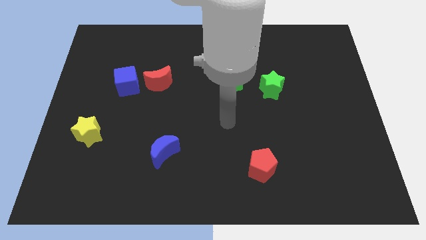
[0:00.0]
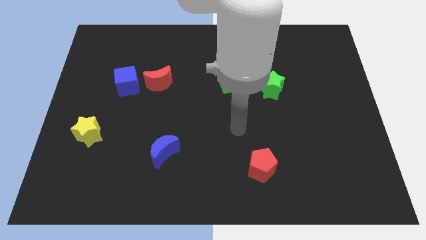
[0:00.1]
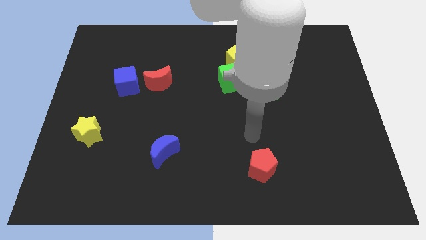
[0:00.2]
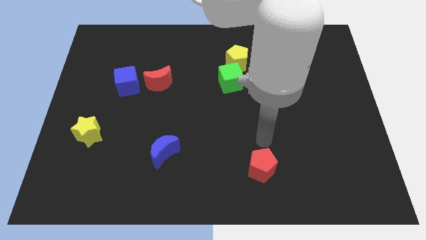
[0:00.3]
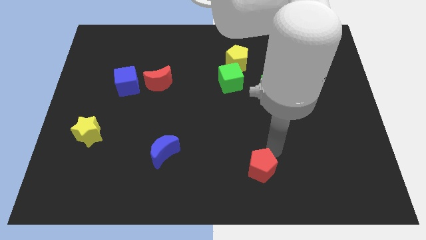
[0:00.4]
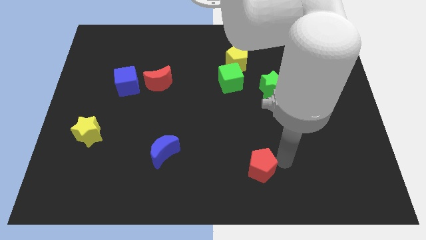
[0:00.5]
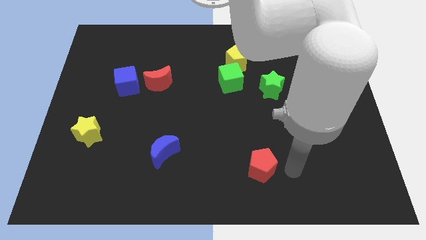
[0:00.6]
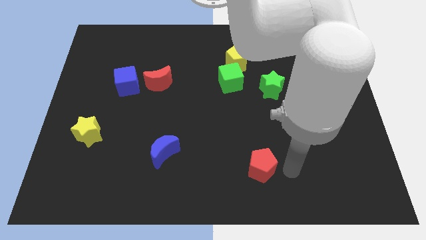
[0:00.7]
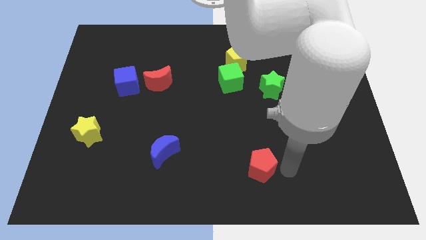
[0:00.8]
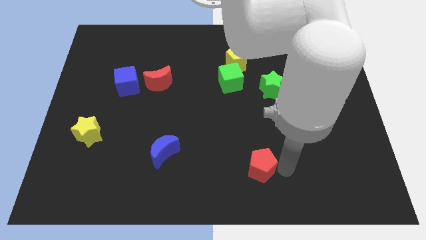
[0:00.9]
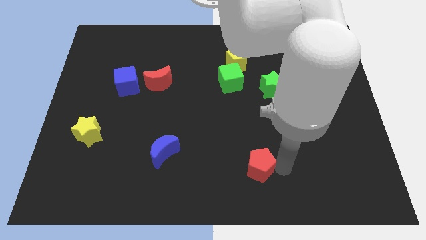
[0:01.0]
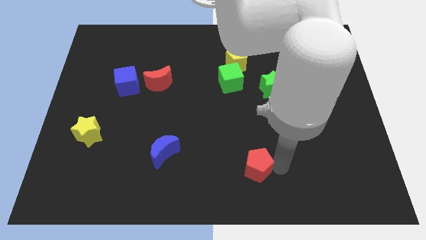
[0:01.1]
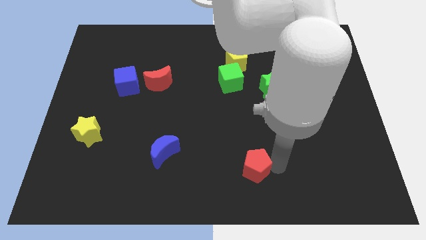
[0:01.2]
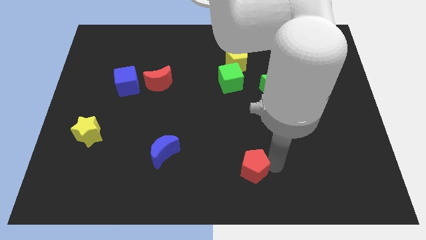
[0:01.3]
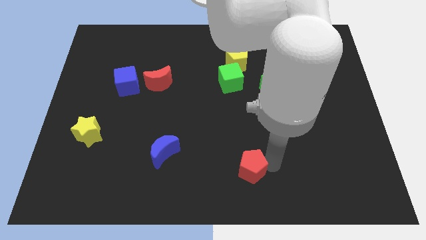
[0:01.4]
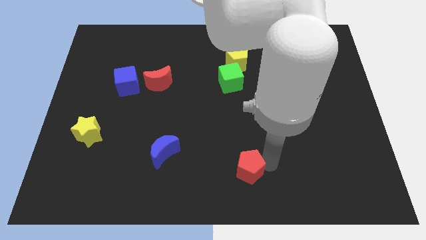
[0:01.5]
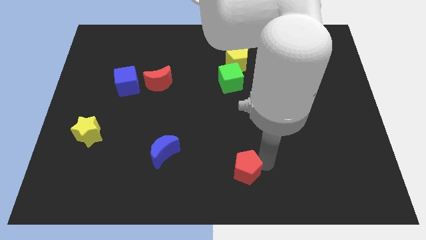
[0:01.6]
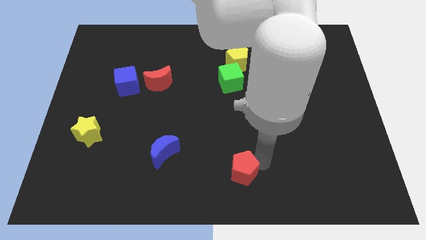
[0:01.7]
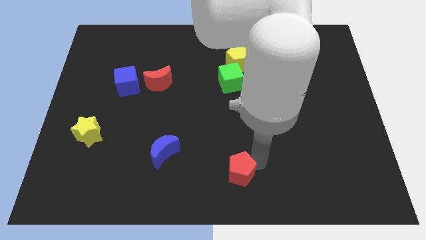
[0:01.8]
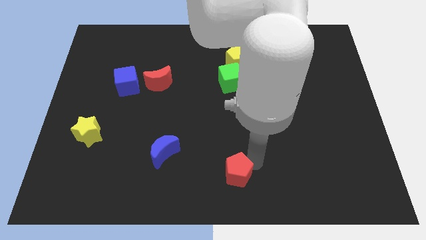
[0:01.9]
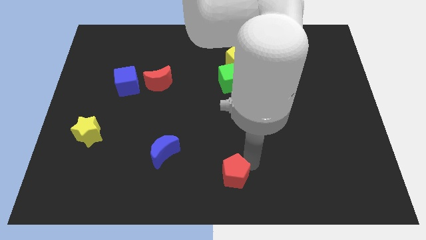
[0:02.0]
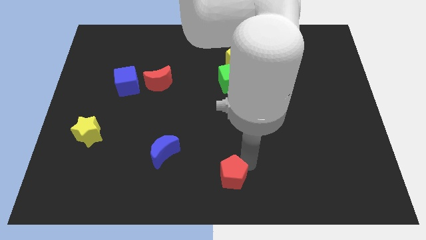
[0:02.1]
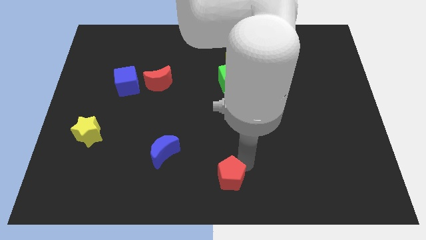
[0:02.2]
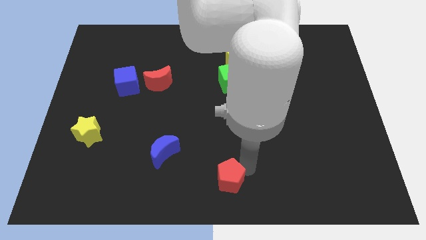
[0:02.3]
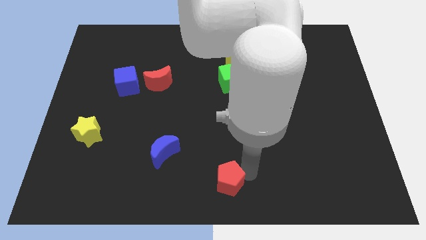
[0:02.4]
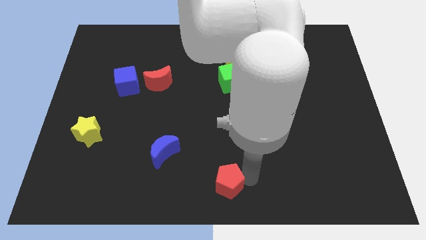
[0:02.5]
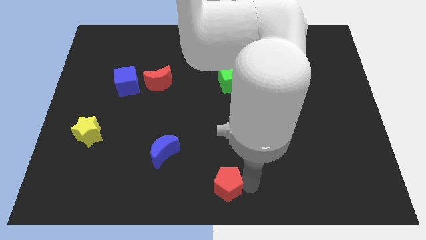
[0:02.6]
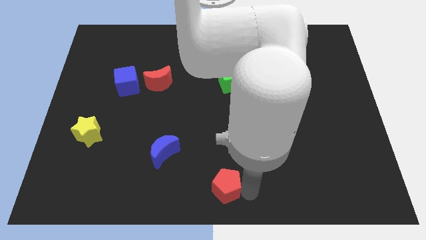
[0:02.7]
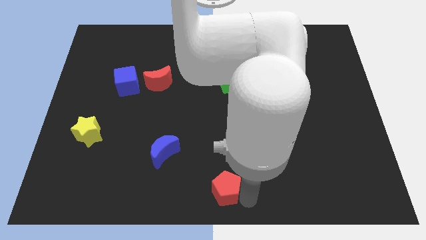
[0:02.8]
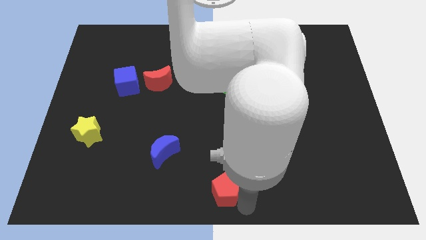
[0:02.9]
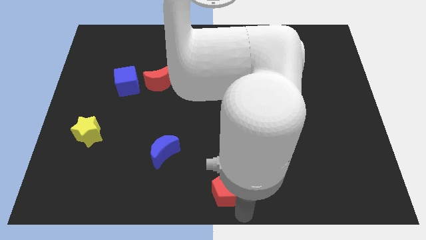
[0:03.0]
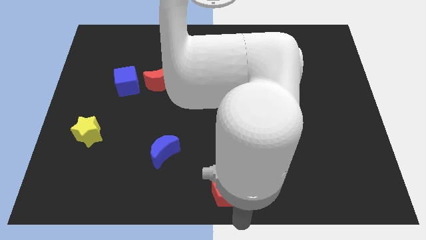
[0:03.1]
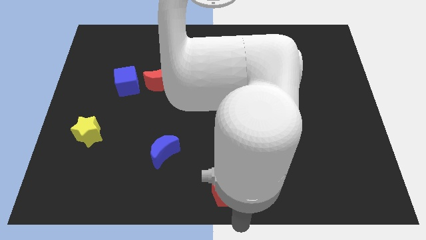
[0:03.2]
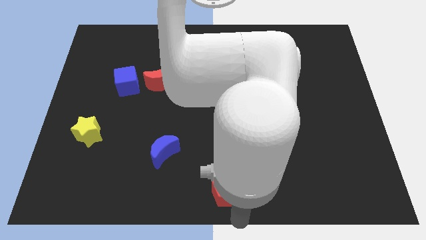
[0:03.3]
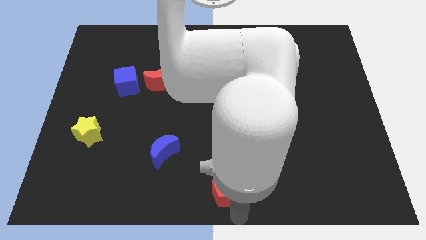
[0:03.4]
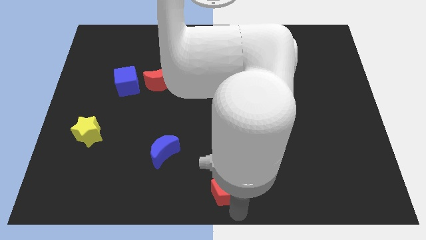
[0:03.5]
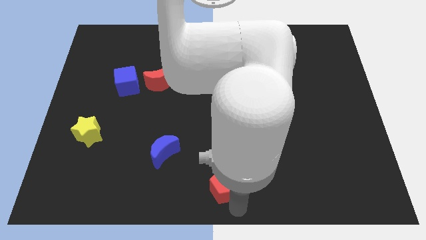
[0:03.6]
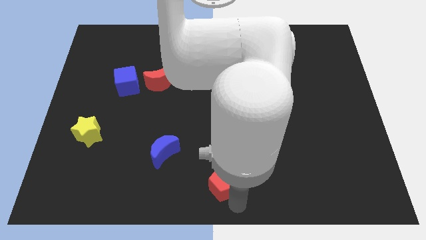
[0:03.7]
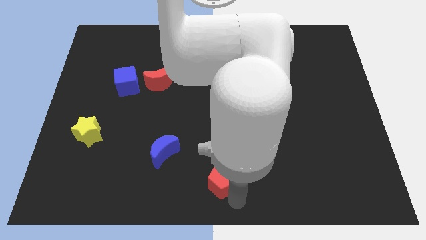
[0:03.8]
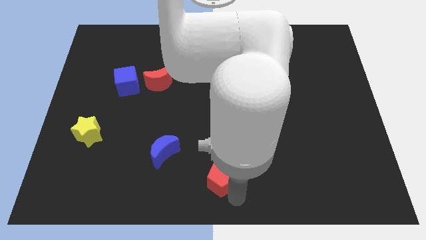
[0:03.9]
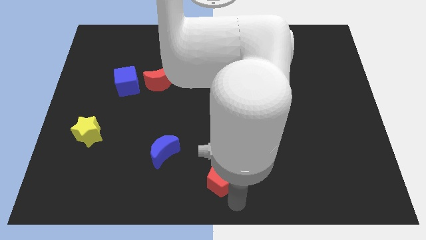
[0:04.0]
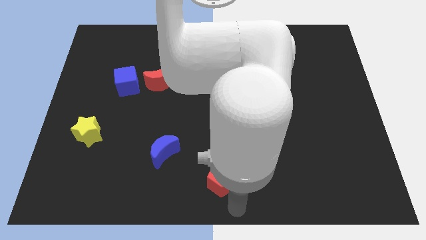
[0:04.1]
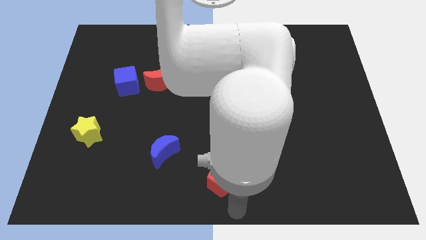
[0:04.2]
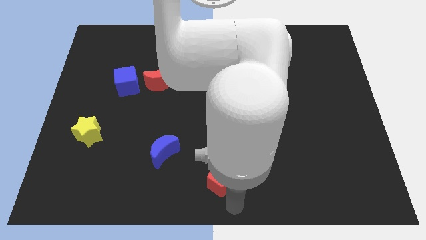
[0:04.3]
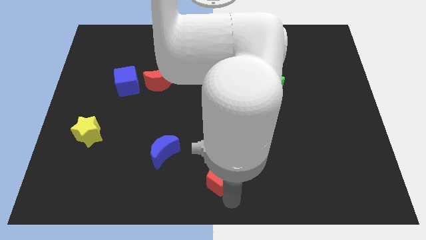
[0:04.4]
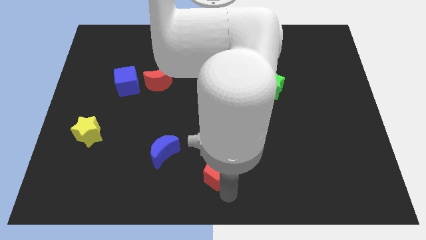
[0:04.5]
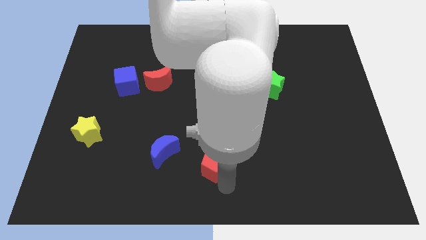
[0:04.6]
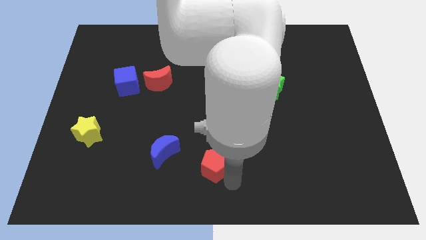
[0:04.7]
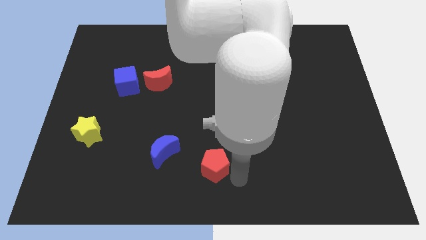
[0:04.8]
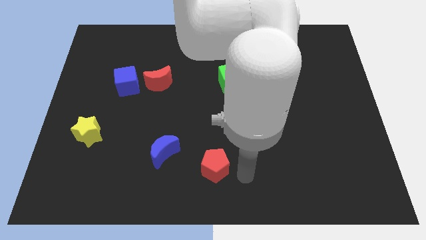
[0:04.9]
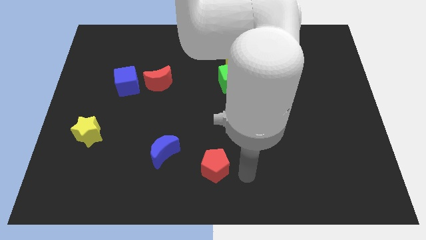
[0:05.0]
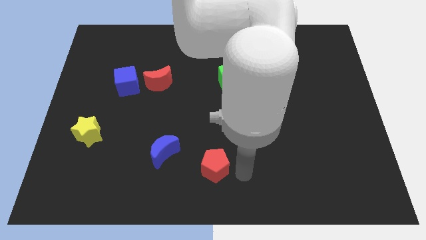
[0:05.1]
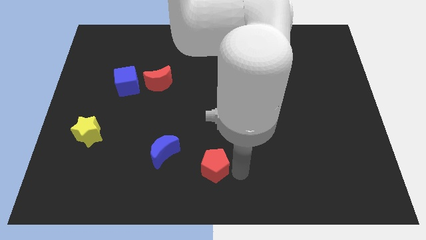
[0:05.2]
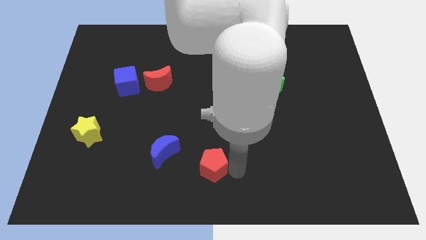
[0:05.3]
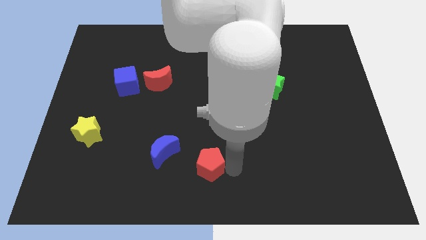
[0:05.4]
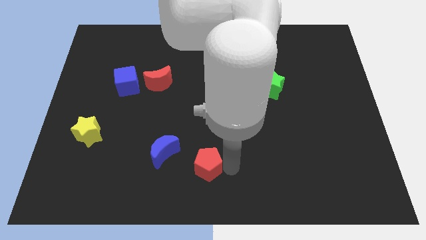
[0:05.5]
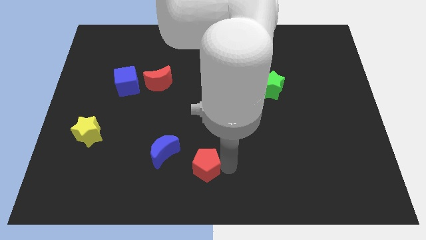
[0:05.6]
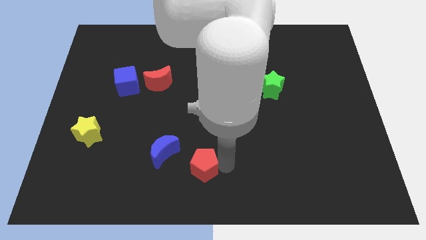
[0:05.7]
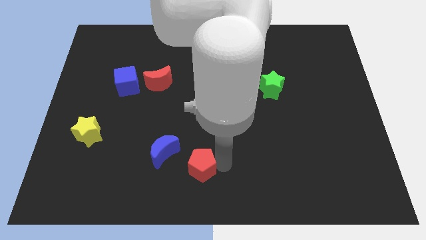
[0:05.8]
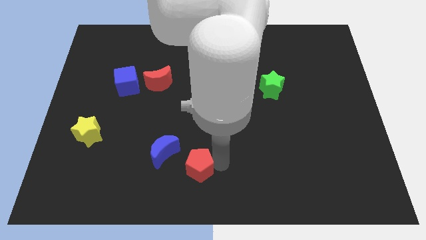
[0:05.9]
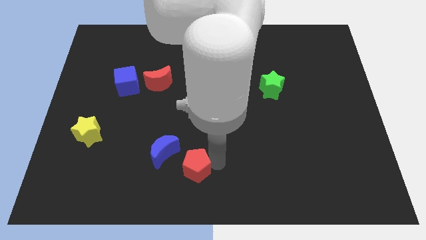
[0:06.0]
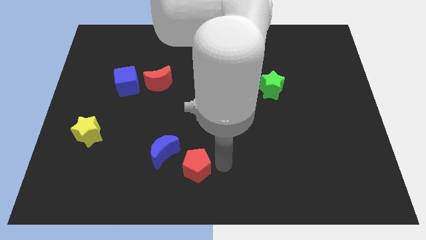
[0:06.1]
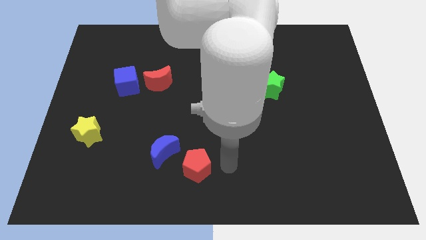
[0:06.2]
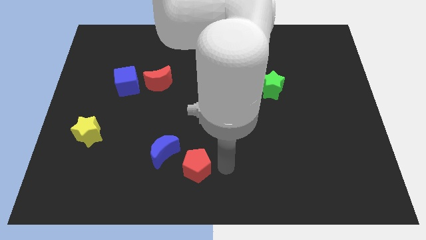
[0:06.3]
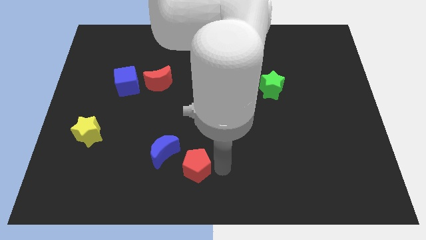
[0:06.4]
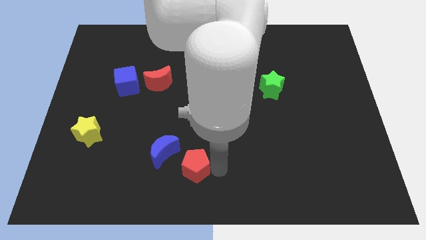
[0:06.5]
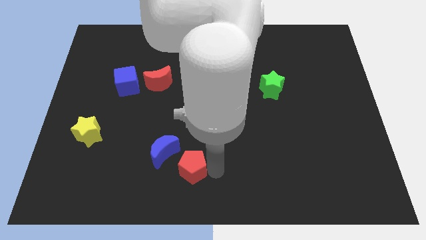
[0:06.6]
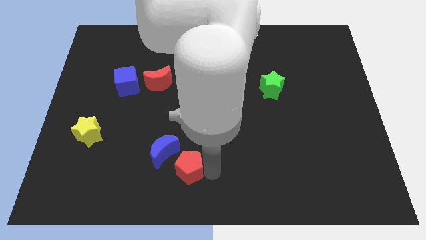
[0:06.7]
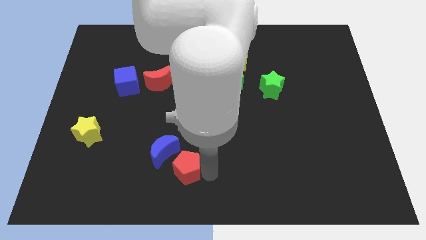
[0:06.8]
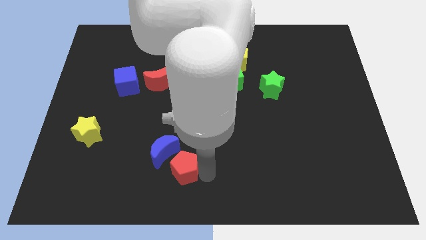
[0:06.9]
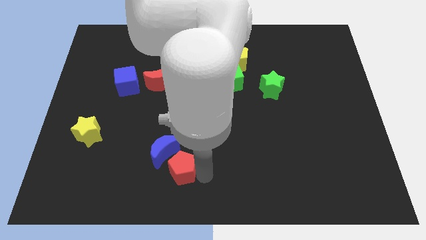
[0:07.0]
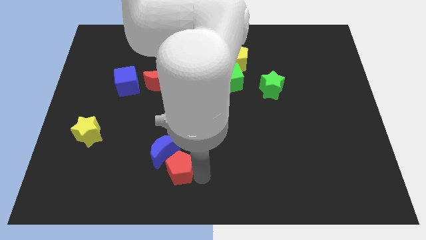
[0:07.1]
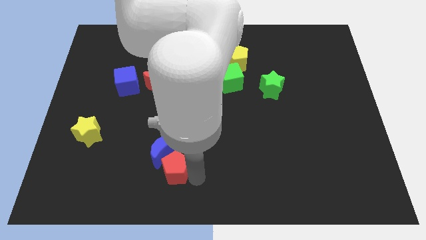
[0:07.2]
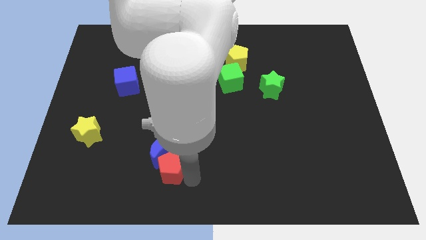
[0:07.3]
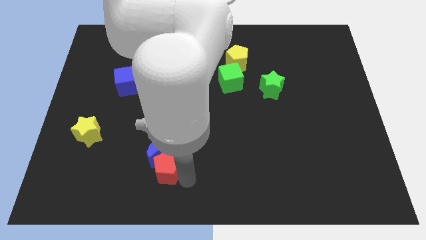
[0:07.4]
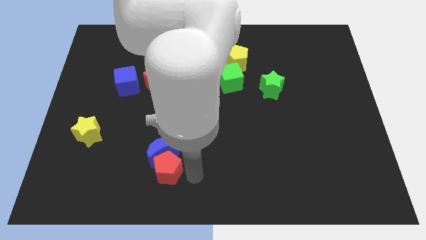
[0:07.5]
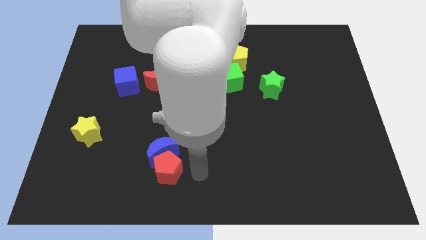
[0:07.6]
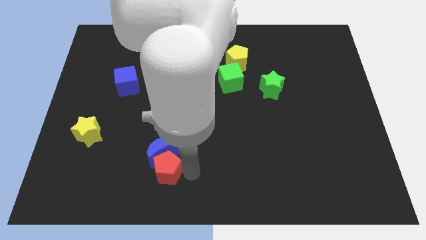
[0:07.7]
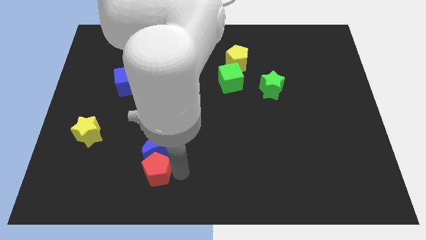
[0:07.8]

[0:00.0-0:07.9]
move the red pentagon left

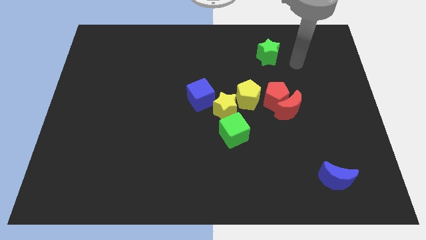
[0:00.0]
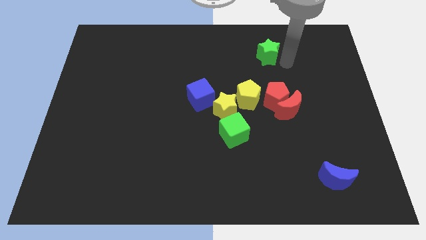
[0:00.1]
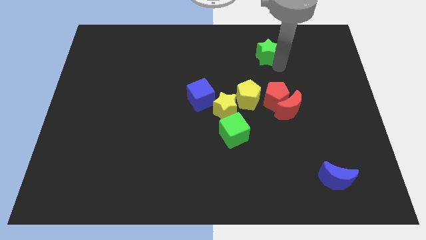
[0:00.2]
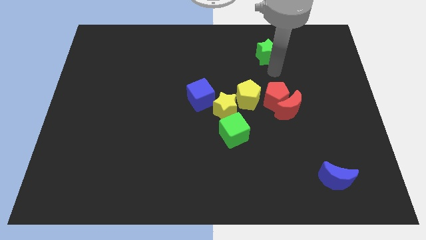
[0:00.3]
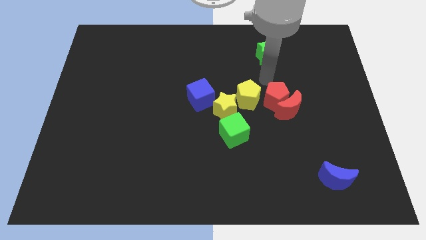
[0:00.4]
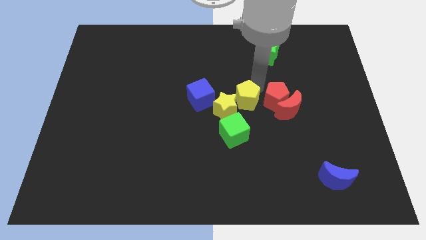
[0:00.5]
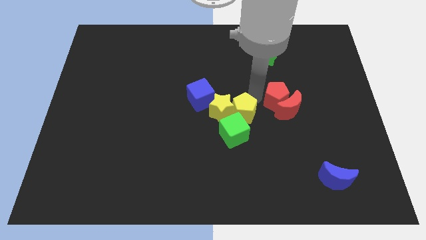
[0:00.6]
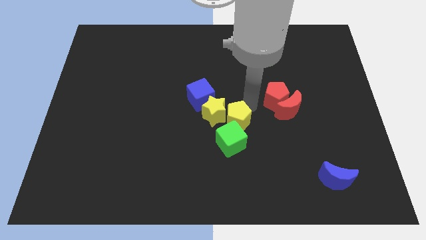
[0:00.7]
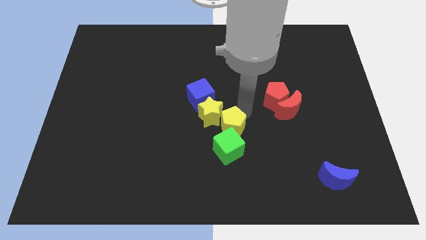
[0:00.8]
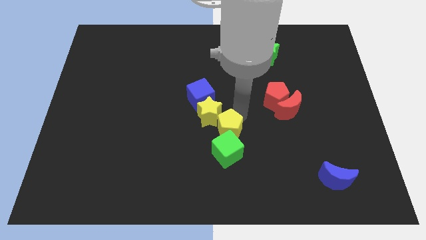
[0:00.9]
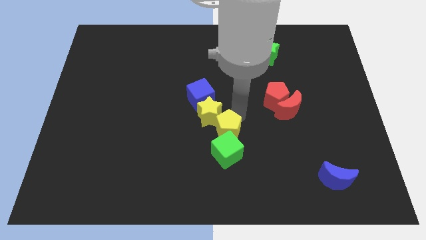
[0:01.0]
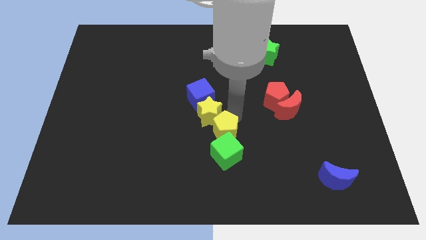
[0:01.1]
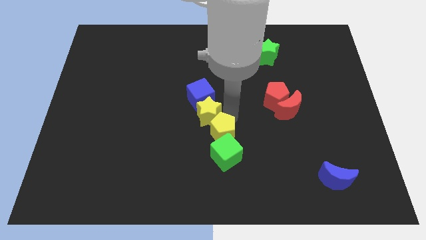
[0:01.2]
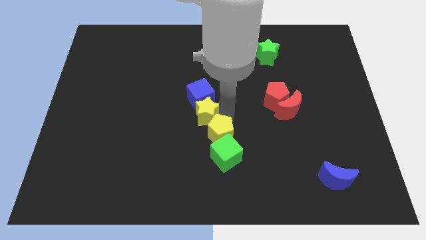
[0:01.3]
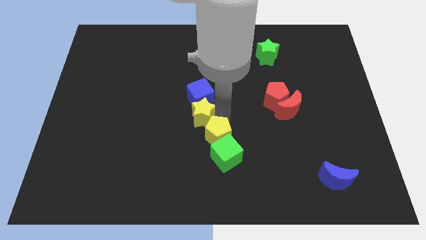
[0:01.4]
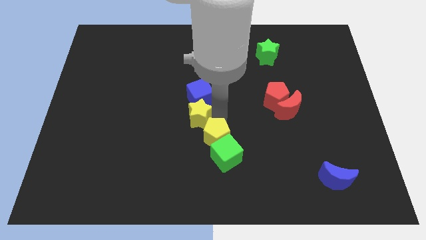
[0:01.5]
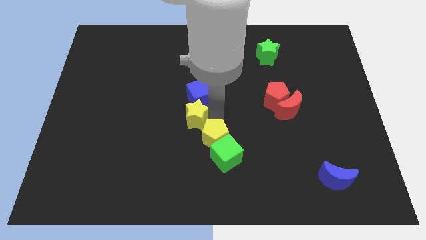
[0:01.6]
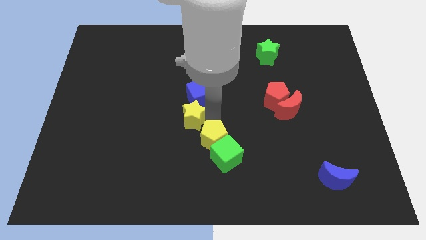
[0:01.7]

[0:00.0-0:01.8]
slightly move the yellow star left
